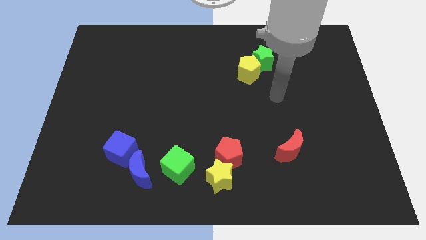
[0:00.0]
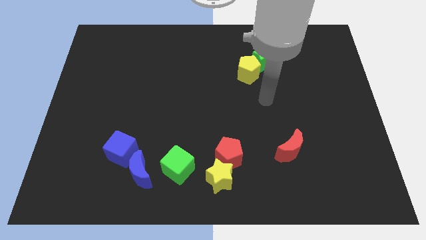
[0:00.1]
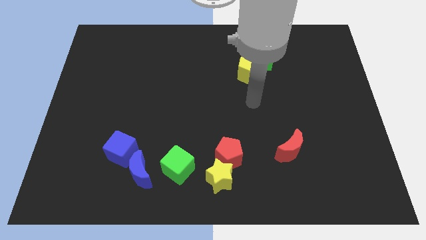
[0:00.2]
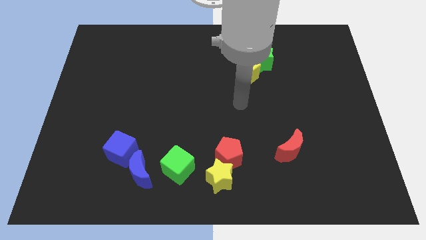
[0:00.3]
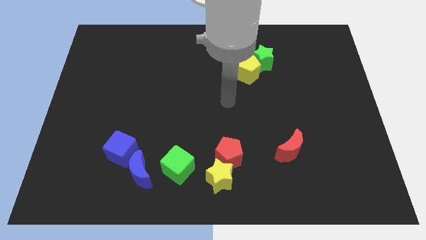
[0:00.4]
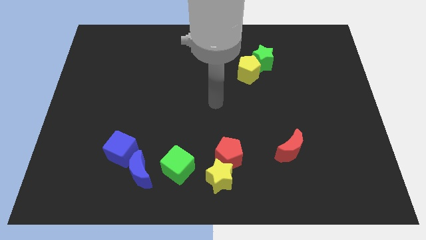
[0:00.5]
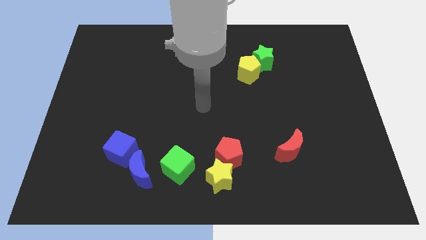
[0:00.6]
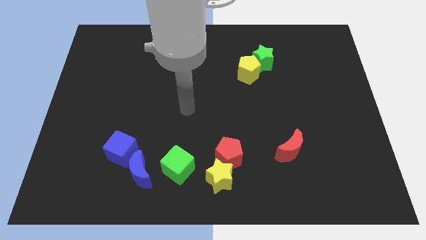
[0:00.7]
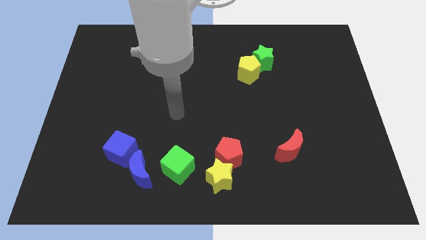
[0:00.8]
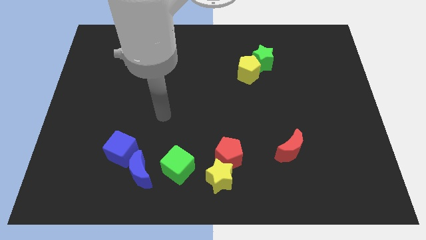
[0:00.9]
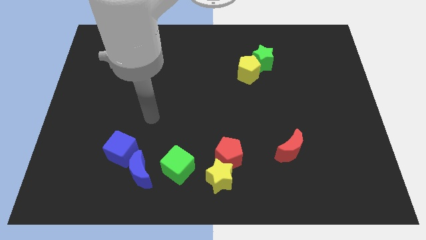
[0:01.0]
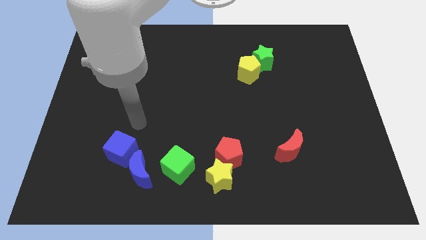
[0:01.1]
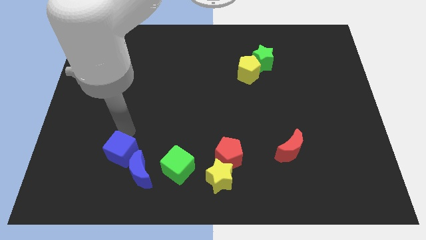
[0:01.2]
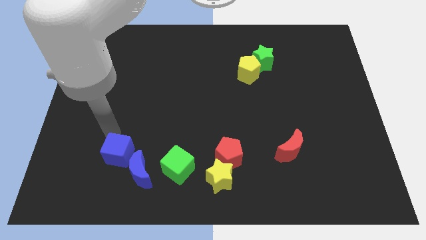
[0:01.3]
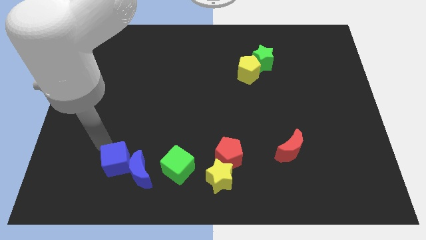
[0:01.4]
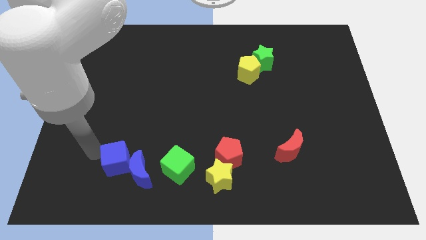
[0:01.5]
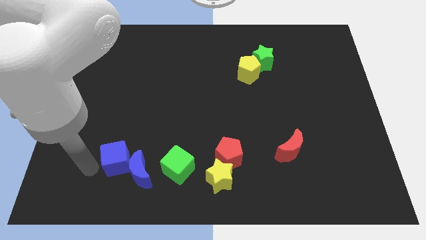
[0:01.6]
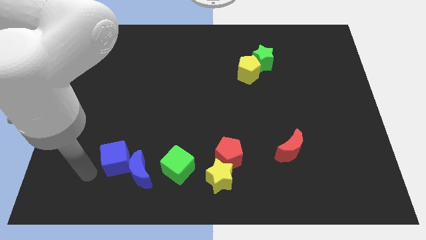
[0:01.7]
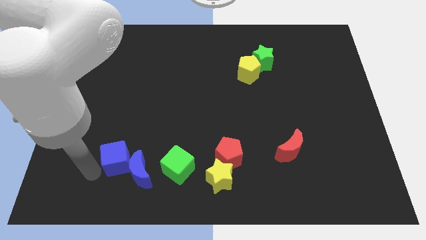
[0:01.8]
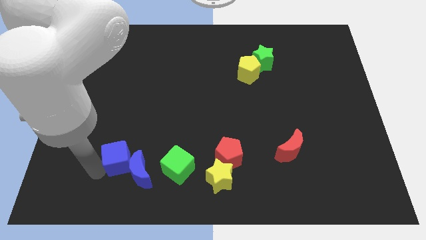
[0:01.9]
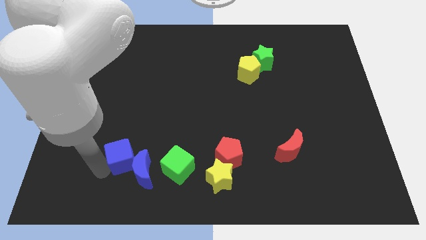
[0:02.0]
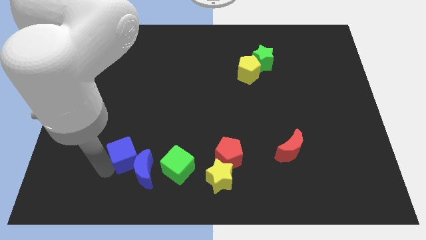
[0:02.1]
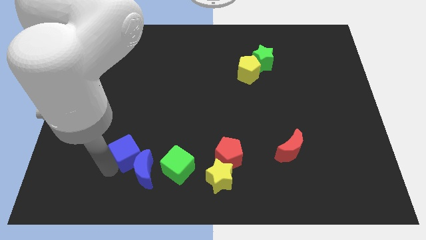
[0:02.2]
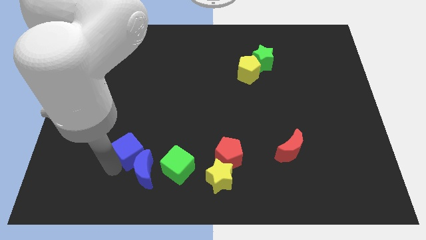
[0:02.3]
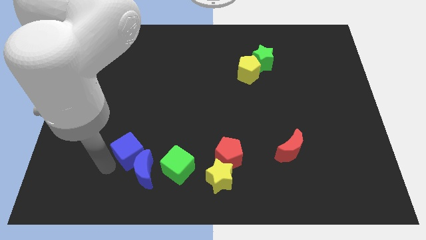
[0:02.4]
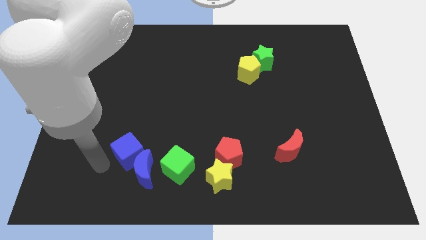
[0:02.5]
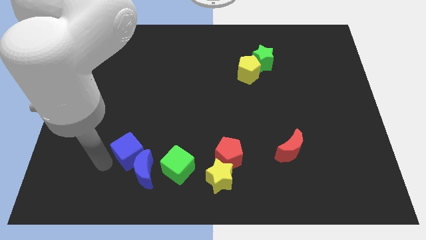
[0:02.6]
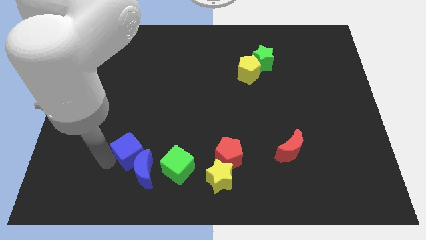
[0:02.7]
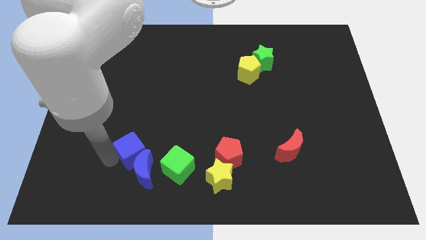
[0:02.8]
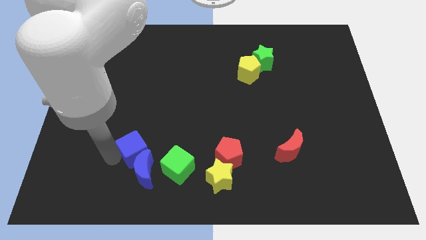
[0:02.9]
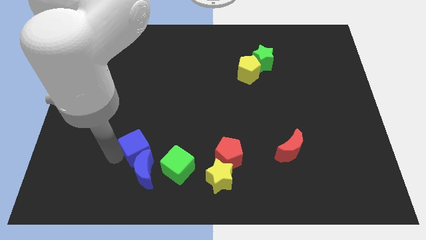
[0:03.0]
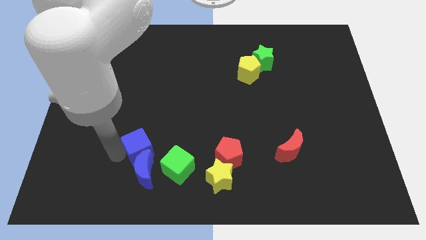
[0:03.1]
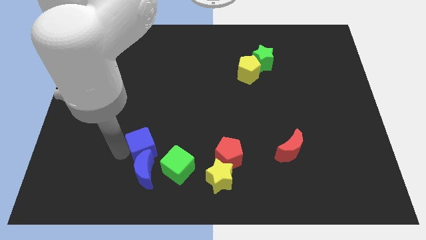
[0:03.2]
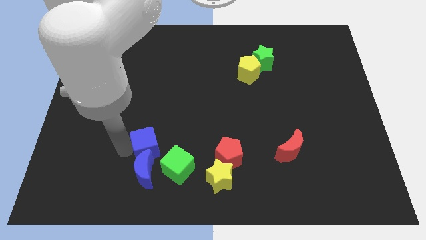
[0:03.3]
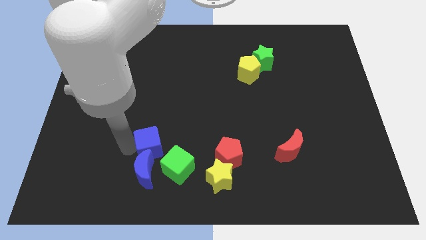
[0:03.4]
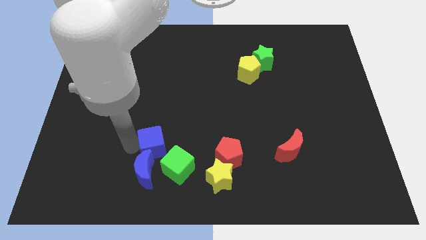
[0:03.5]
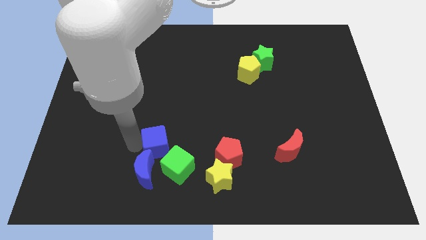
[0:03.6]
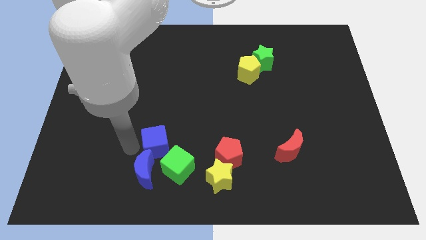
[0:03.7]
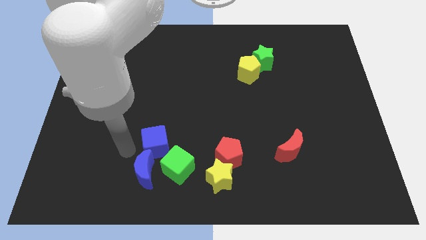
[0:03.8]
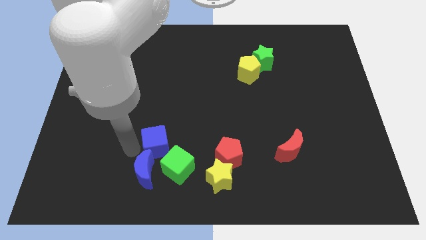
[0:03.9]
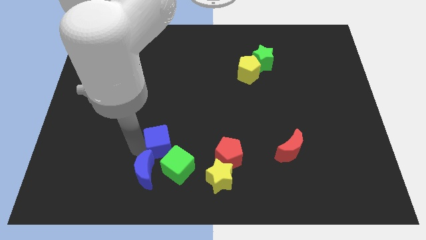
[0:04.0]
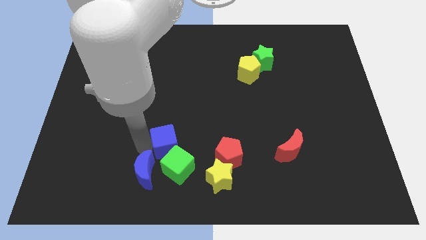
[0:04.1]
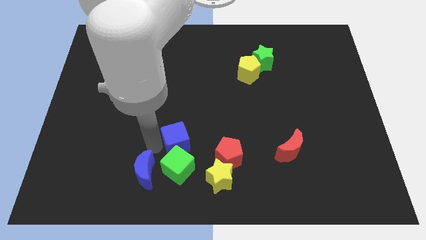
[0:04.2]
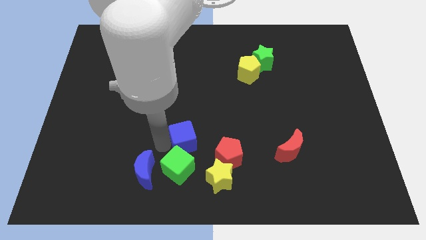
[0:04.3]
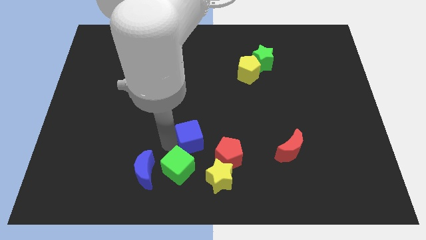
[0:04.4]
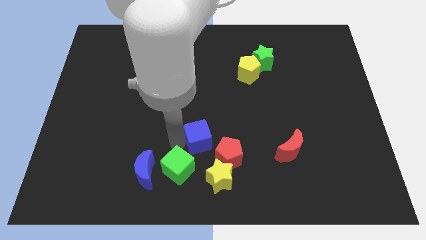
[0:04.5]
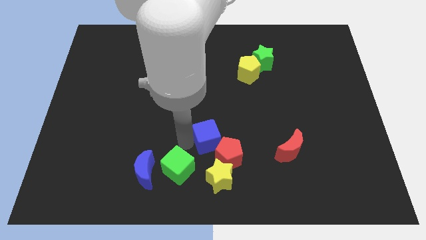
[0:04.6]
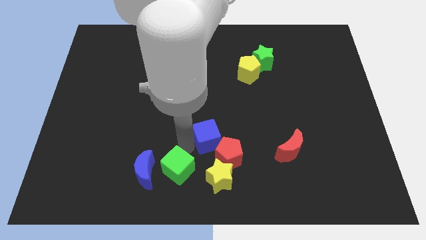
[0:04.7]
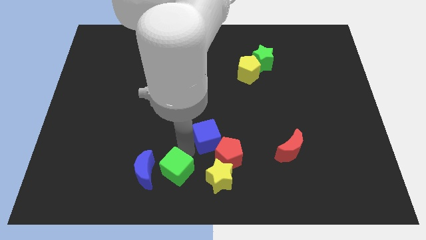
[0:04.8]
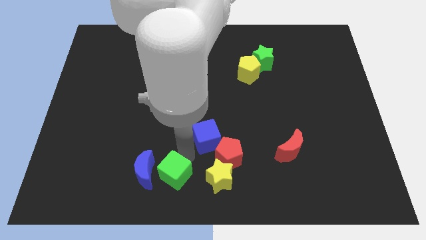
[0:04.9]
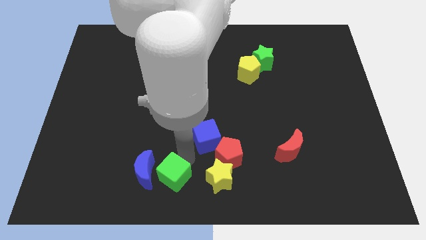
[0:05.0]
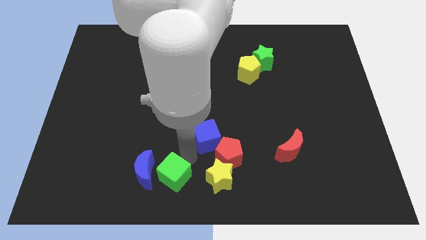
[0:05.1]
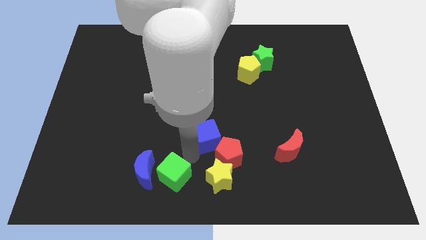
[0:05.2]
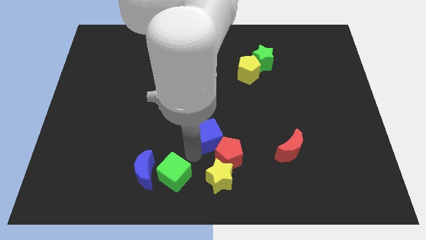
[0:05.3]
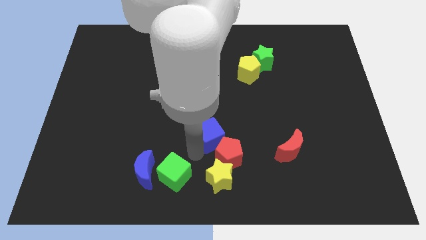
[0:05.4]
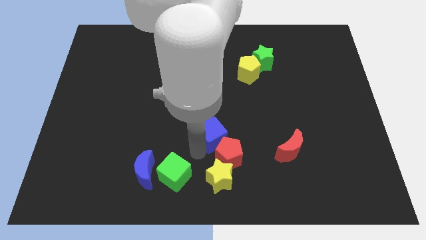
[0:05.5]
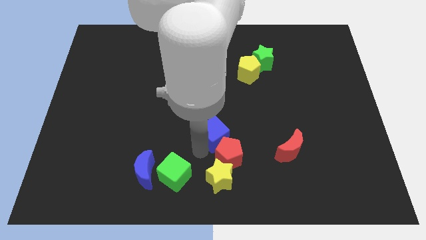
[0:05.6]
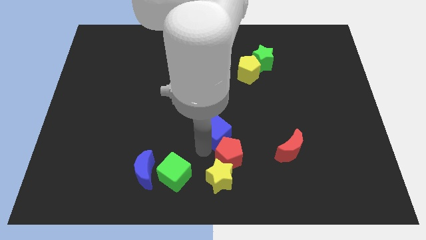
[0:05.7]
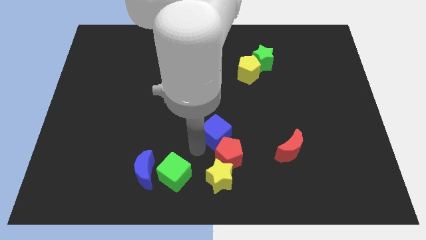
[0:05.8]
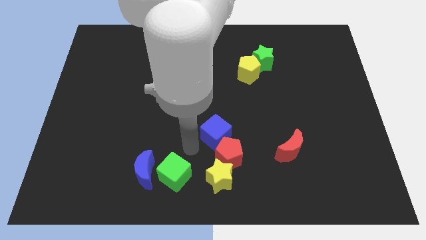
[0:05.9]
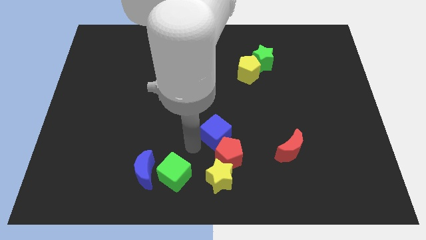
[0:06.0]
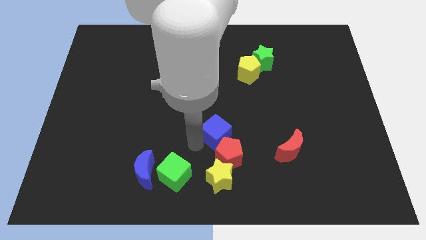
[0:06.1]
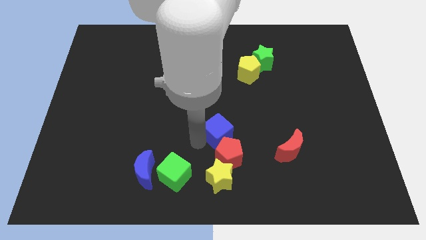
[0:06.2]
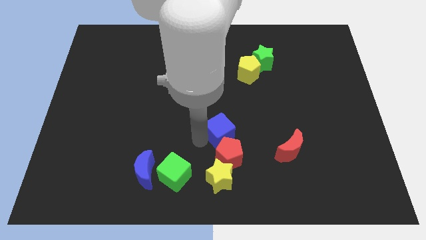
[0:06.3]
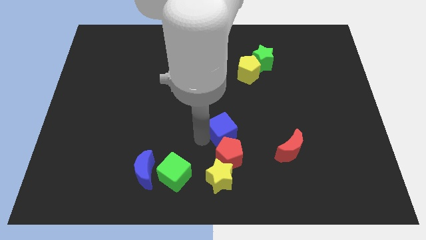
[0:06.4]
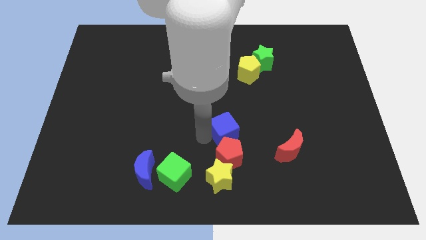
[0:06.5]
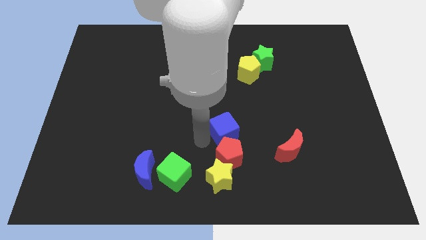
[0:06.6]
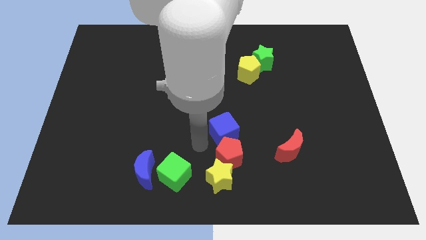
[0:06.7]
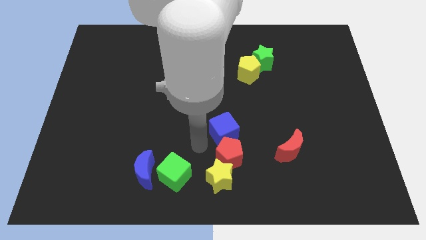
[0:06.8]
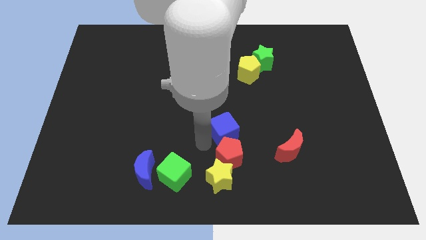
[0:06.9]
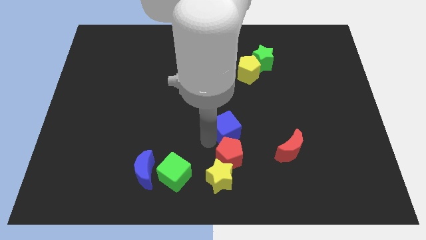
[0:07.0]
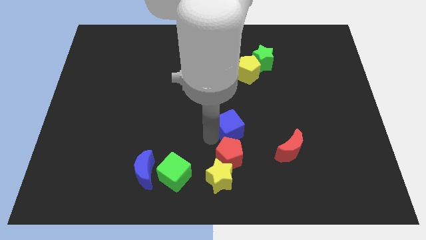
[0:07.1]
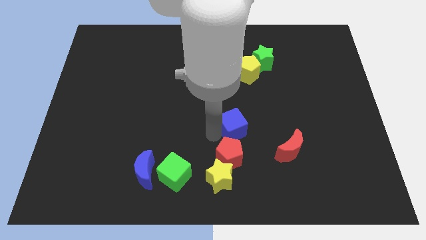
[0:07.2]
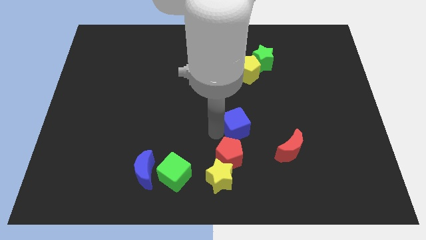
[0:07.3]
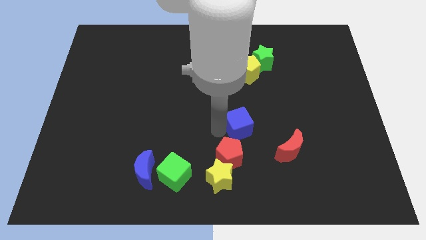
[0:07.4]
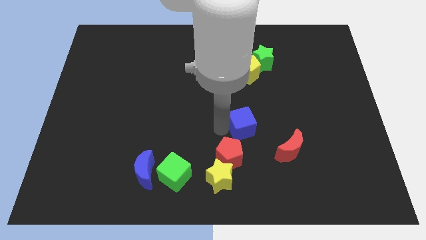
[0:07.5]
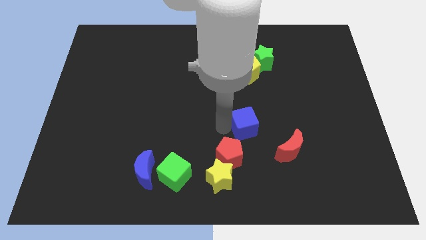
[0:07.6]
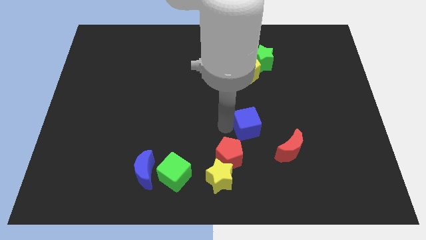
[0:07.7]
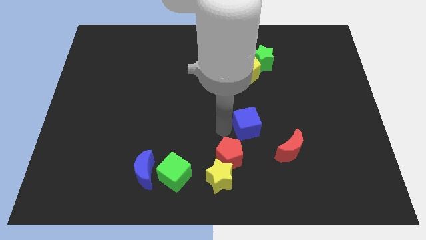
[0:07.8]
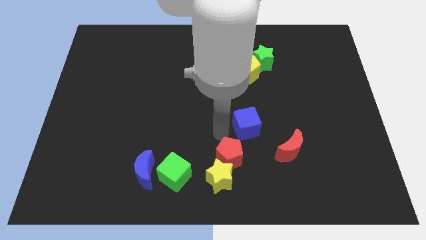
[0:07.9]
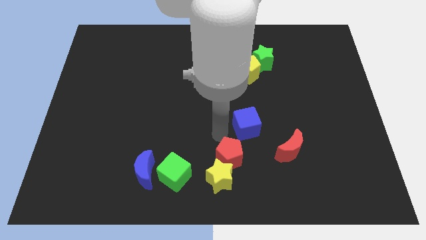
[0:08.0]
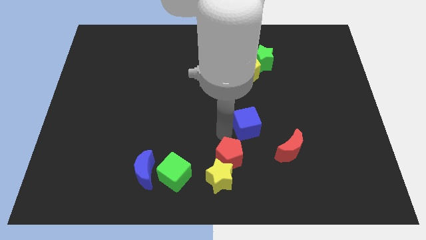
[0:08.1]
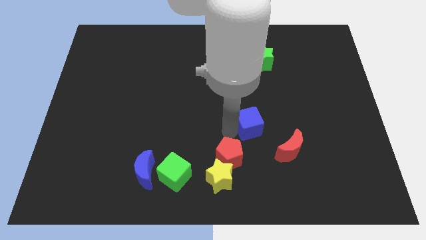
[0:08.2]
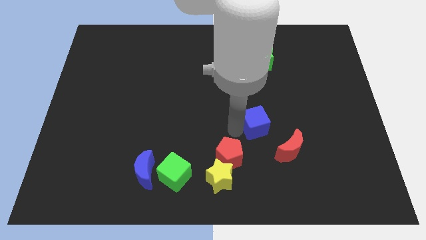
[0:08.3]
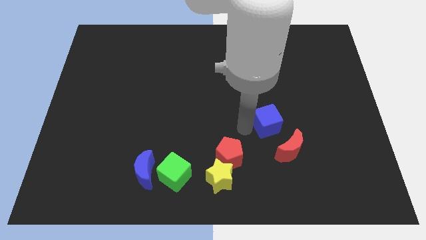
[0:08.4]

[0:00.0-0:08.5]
push the blue cube to the top of the red moon
